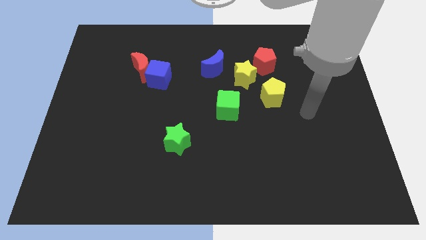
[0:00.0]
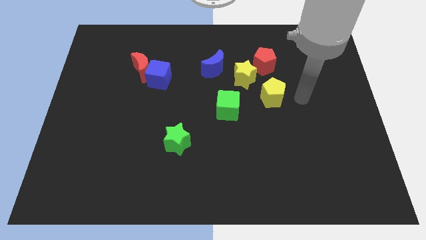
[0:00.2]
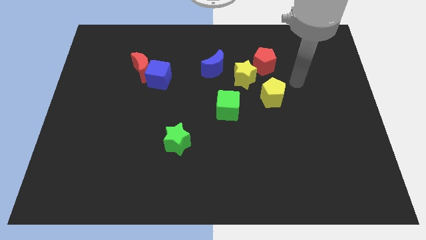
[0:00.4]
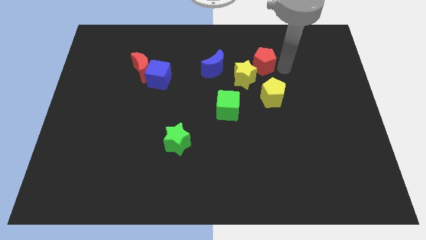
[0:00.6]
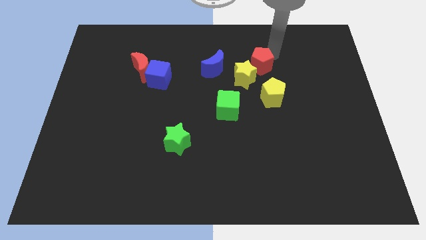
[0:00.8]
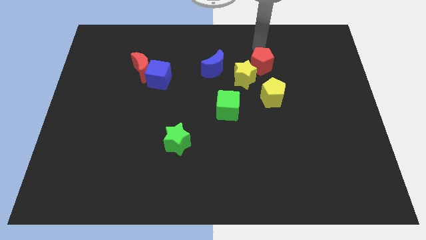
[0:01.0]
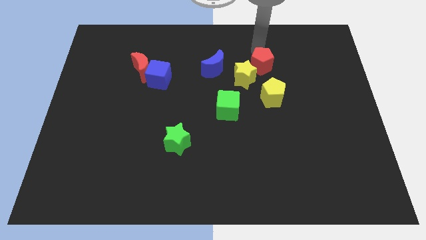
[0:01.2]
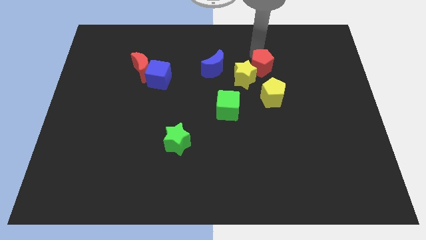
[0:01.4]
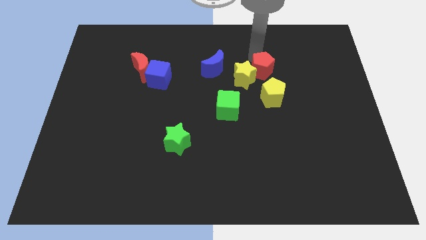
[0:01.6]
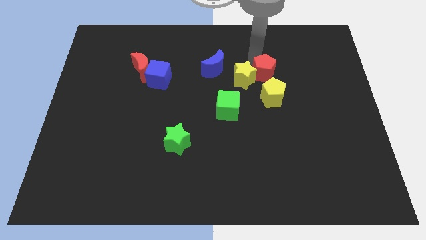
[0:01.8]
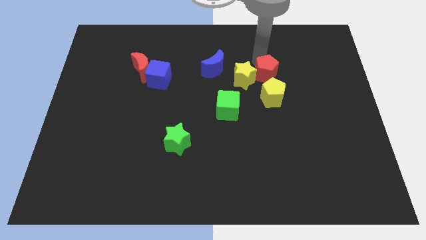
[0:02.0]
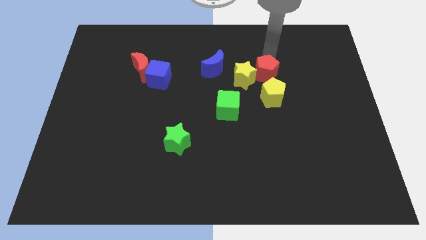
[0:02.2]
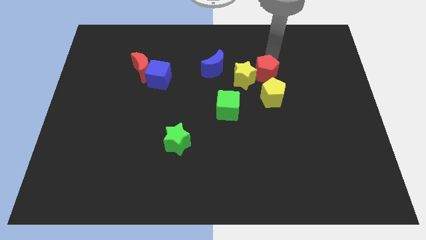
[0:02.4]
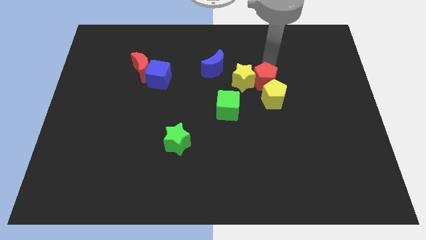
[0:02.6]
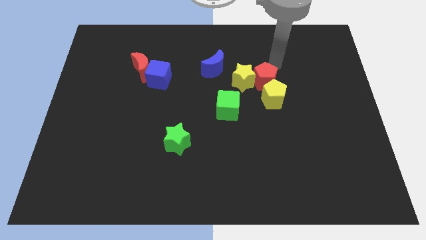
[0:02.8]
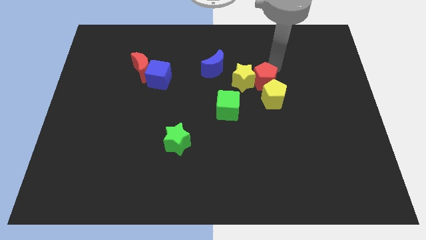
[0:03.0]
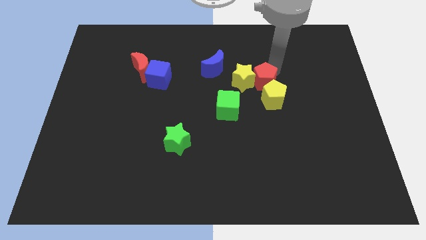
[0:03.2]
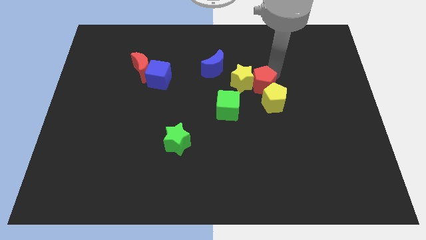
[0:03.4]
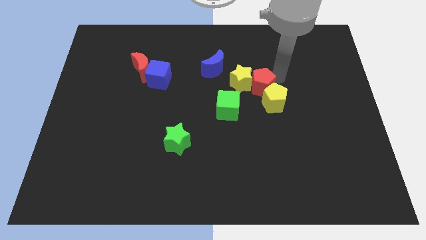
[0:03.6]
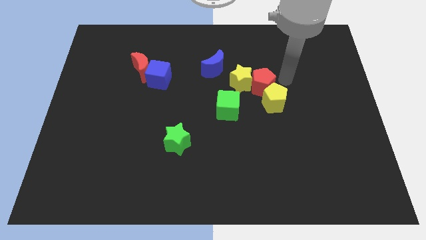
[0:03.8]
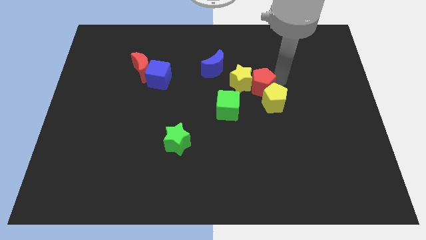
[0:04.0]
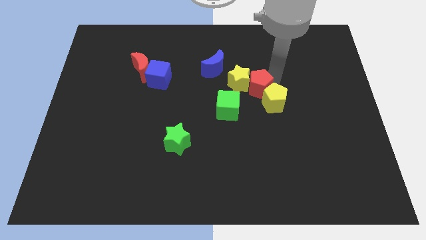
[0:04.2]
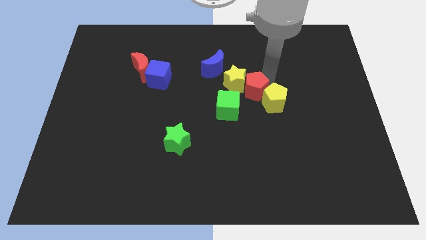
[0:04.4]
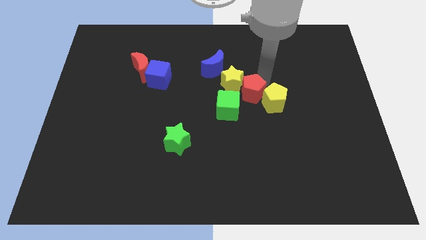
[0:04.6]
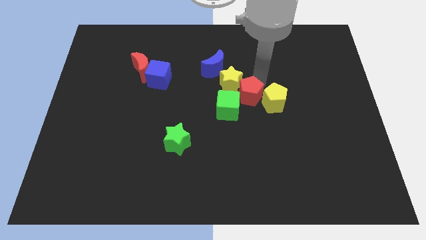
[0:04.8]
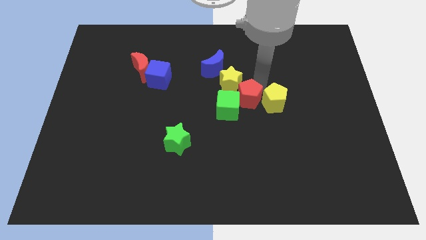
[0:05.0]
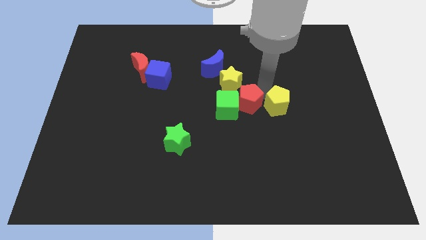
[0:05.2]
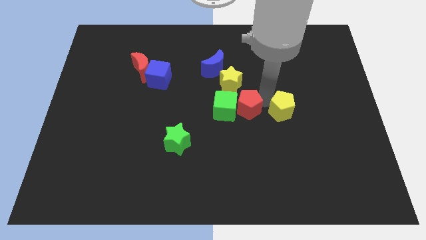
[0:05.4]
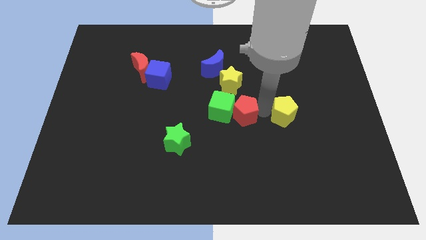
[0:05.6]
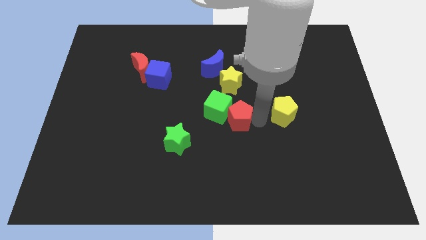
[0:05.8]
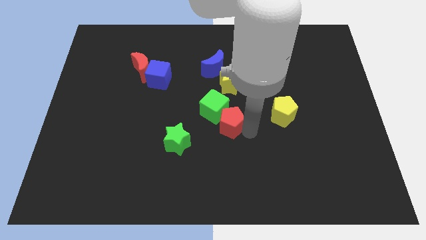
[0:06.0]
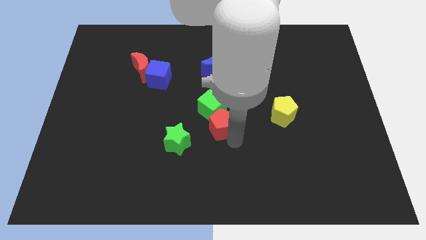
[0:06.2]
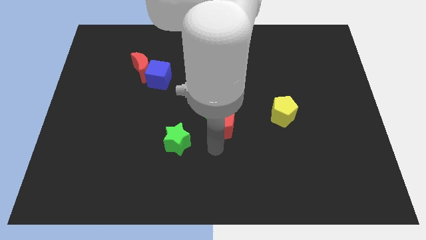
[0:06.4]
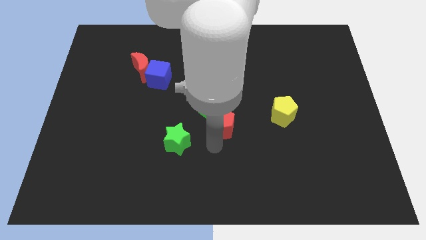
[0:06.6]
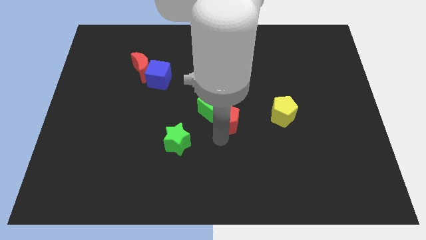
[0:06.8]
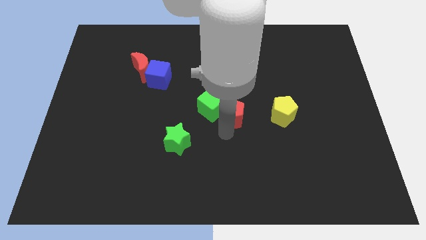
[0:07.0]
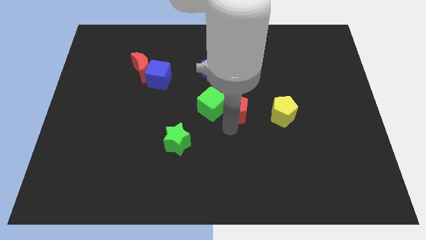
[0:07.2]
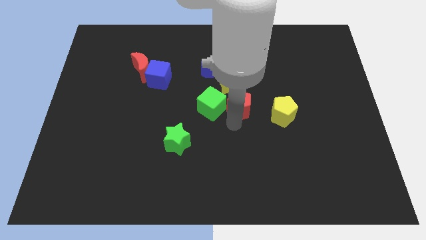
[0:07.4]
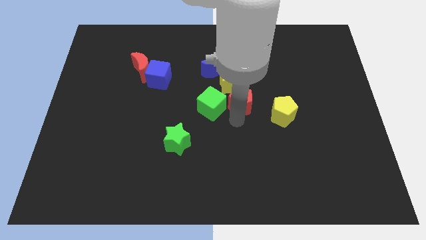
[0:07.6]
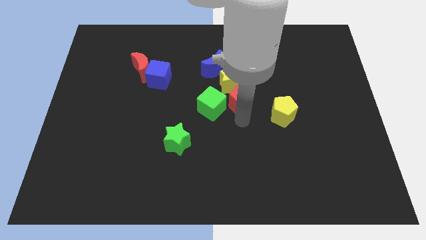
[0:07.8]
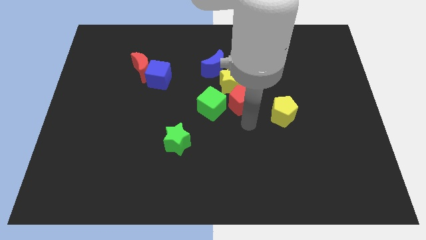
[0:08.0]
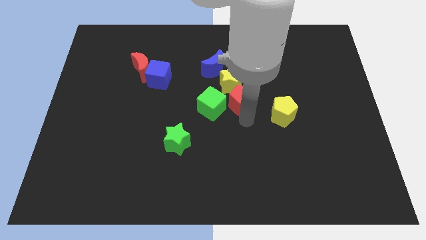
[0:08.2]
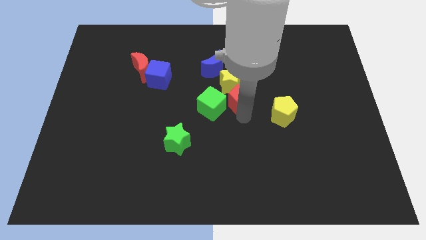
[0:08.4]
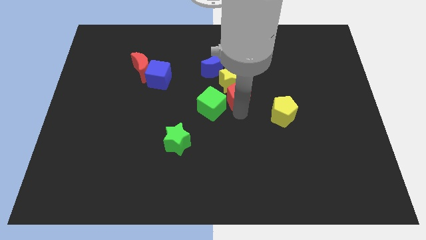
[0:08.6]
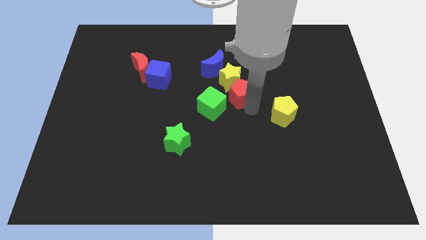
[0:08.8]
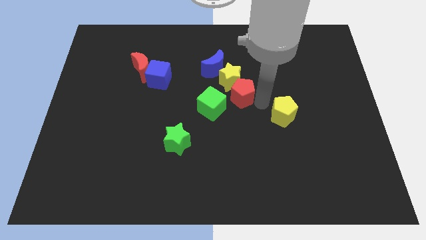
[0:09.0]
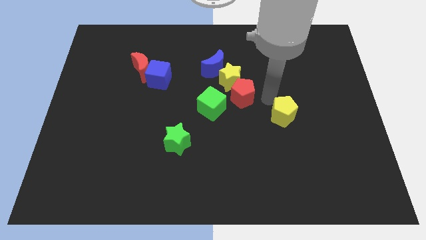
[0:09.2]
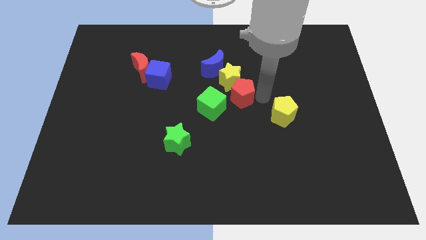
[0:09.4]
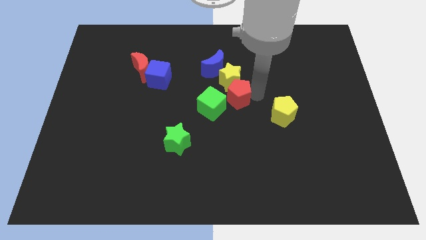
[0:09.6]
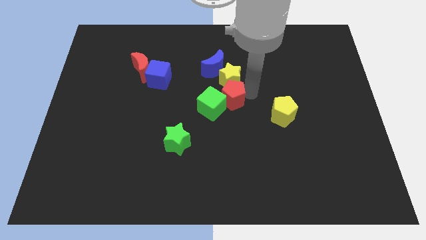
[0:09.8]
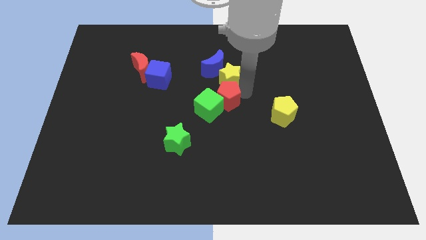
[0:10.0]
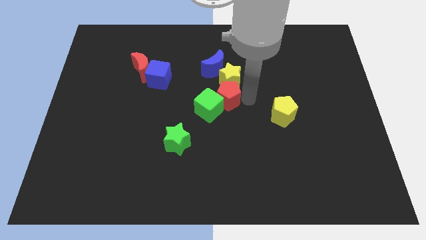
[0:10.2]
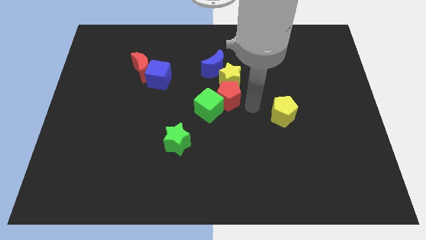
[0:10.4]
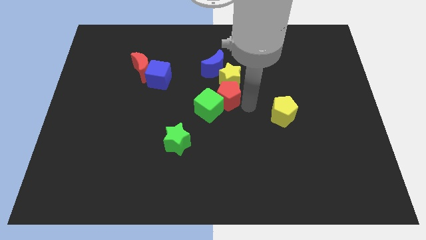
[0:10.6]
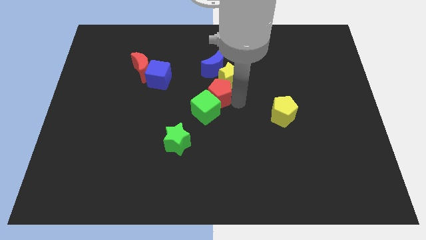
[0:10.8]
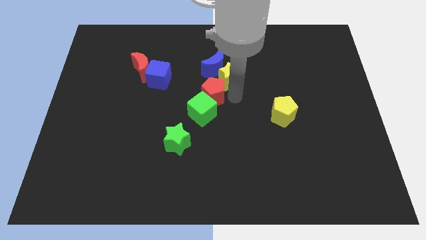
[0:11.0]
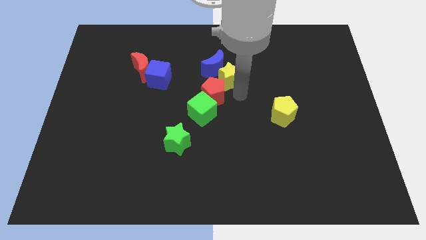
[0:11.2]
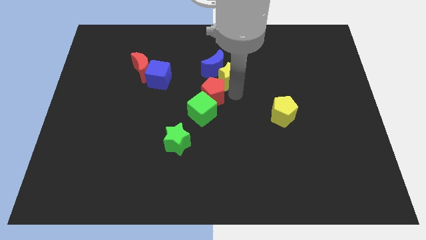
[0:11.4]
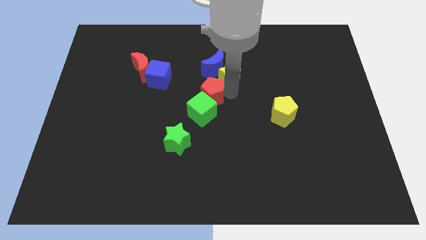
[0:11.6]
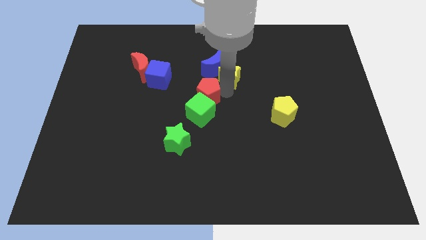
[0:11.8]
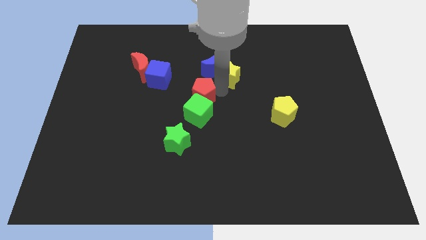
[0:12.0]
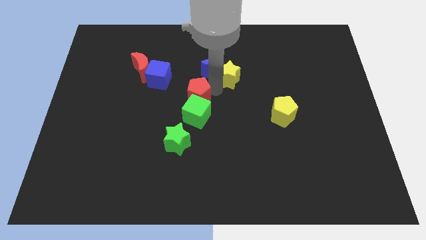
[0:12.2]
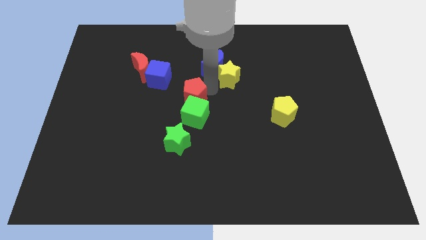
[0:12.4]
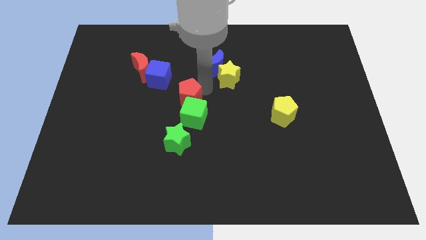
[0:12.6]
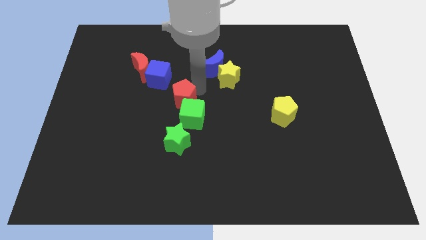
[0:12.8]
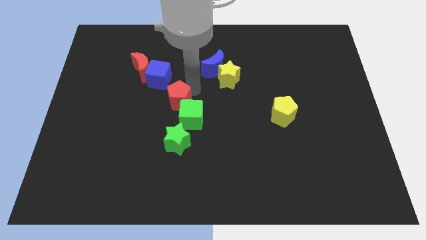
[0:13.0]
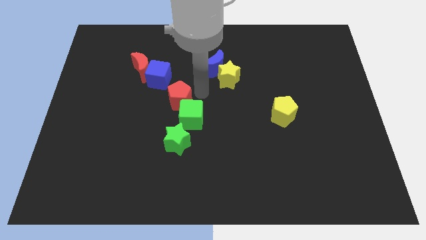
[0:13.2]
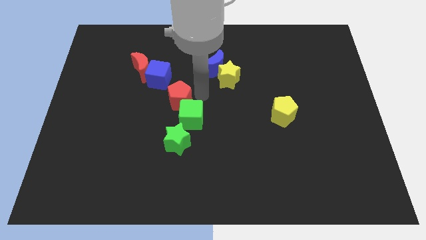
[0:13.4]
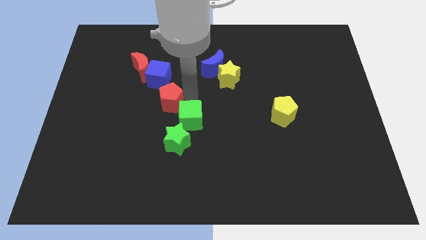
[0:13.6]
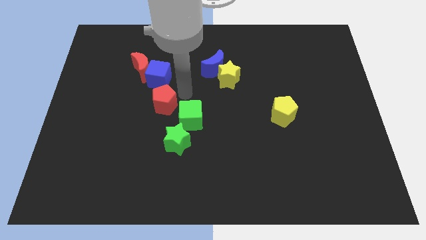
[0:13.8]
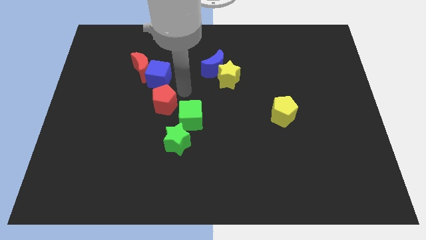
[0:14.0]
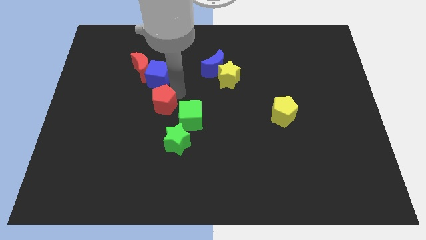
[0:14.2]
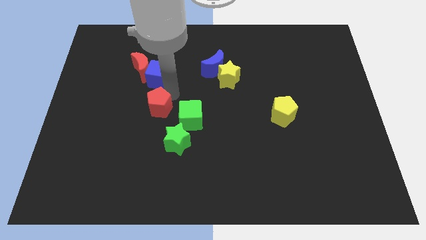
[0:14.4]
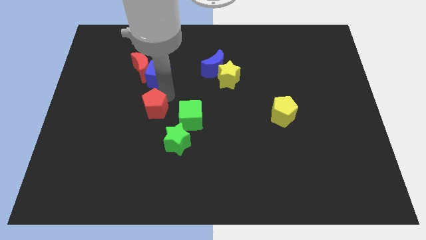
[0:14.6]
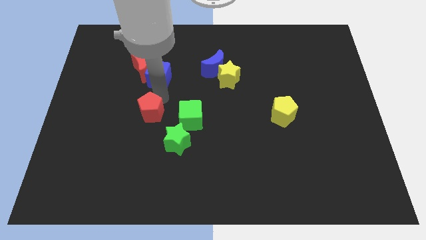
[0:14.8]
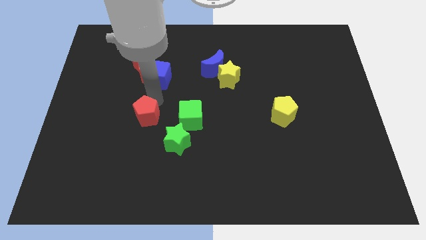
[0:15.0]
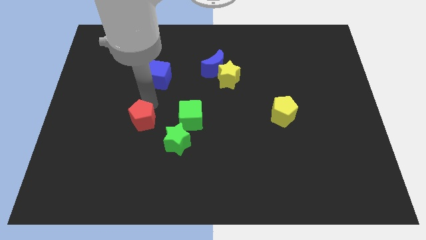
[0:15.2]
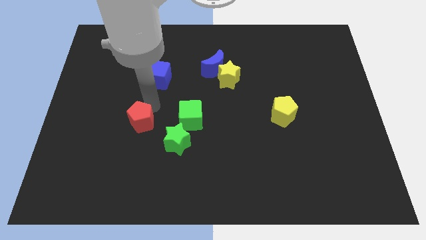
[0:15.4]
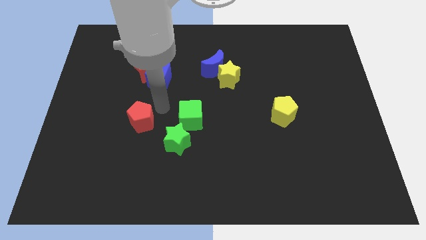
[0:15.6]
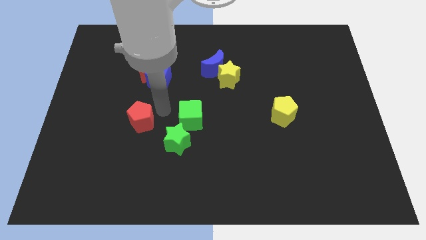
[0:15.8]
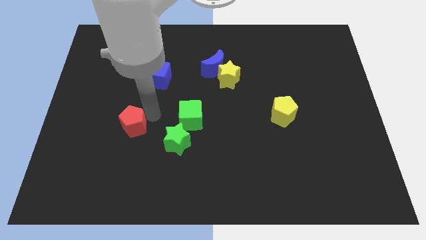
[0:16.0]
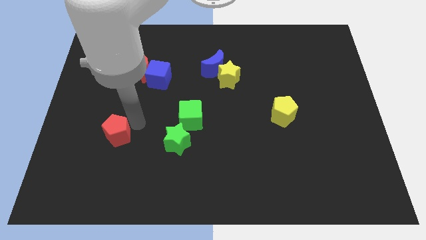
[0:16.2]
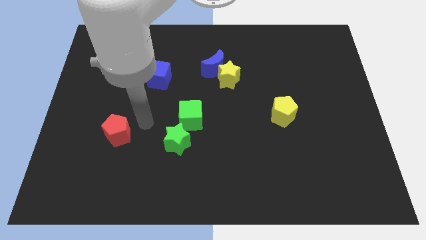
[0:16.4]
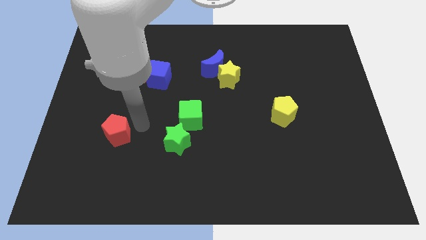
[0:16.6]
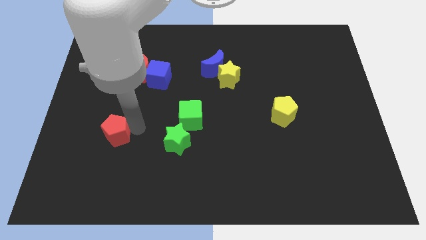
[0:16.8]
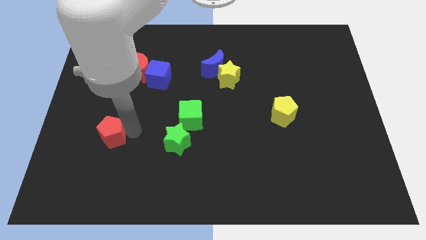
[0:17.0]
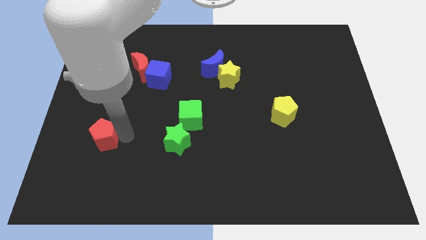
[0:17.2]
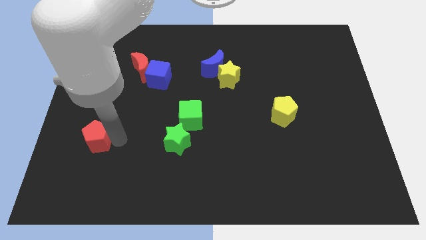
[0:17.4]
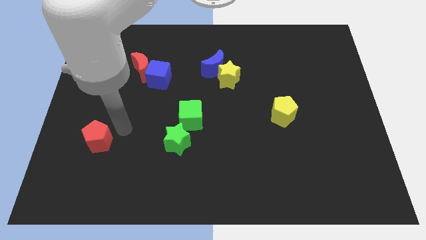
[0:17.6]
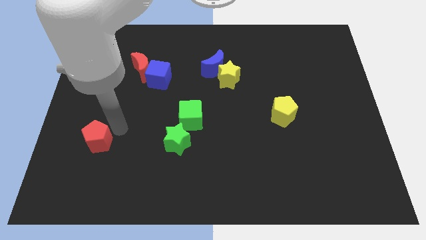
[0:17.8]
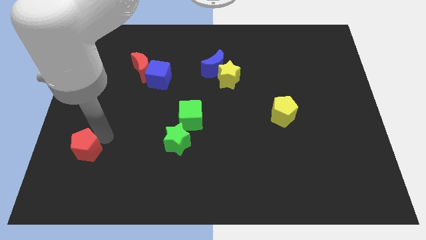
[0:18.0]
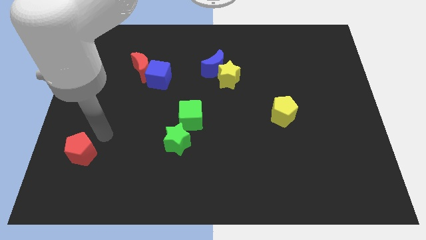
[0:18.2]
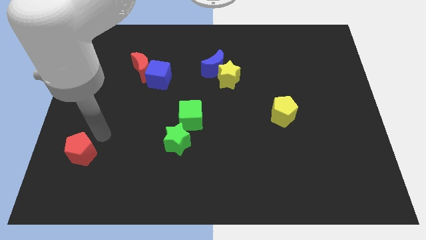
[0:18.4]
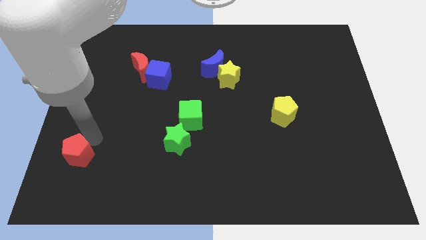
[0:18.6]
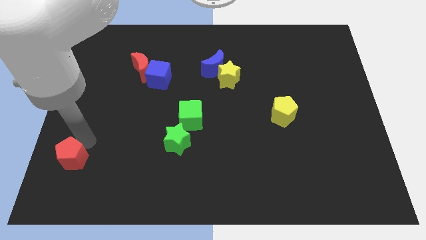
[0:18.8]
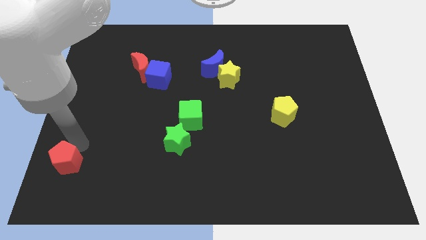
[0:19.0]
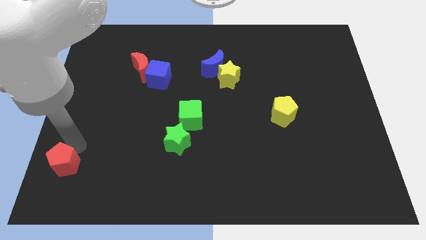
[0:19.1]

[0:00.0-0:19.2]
put the red pentagon to the bottom left
